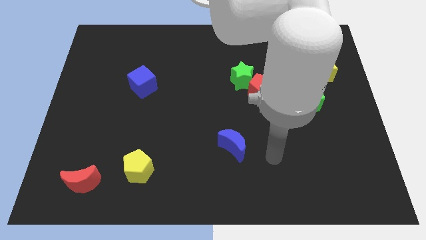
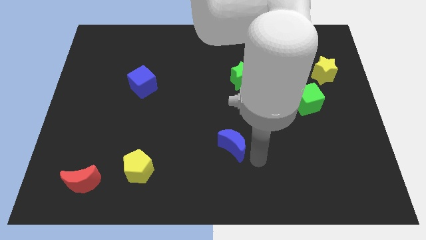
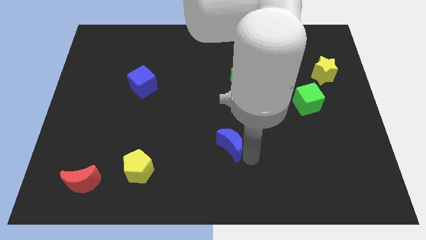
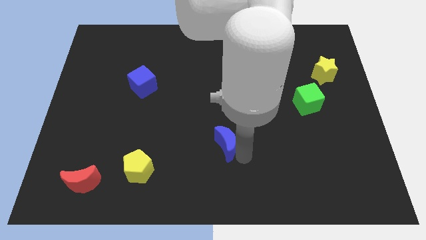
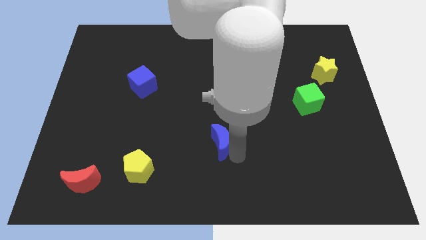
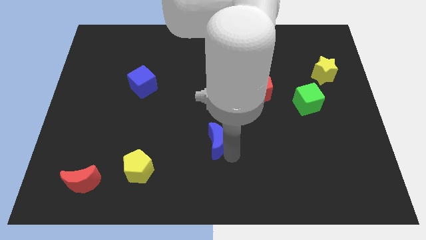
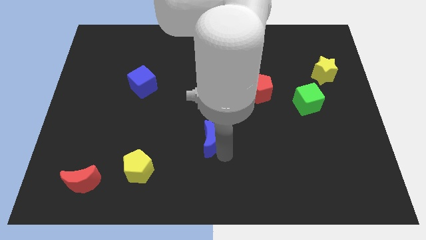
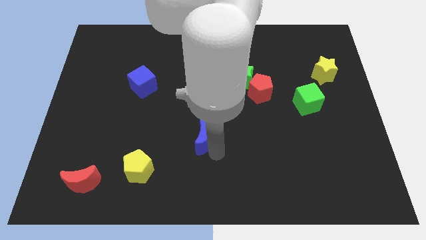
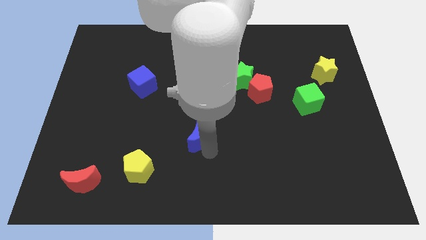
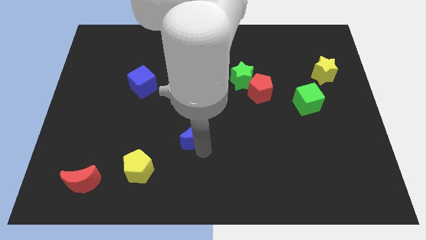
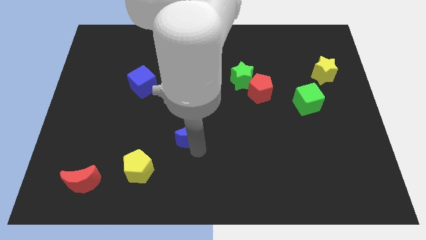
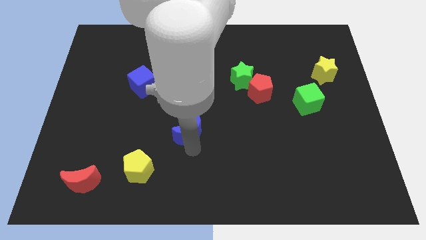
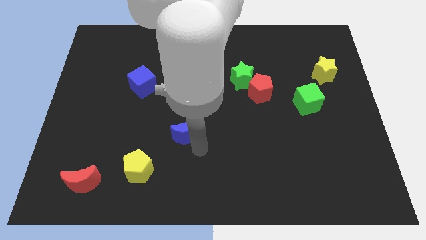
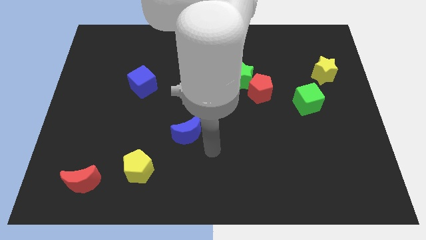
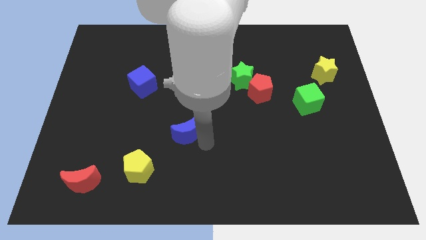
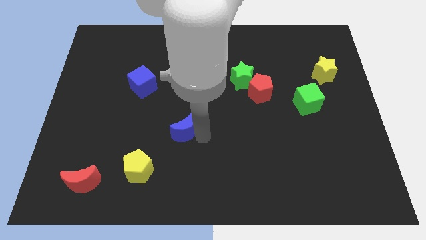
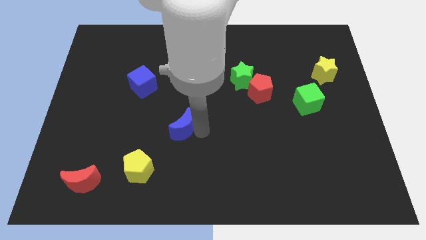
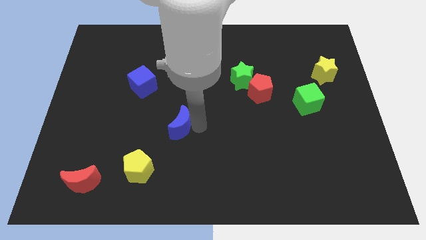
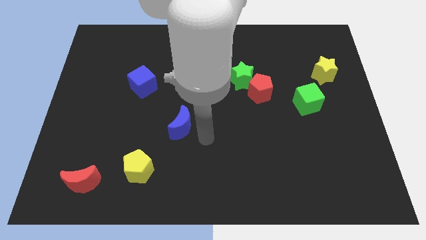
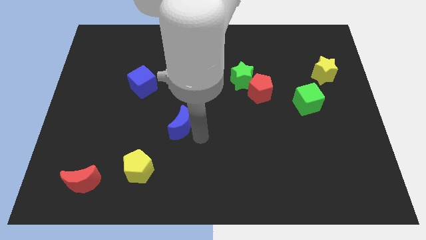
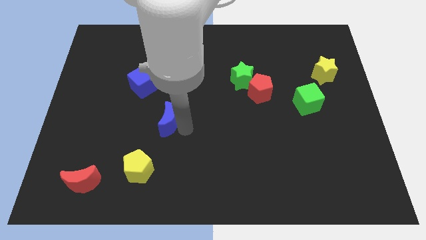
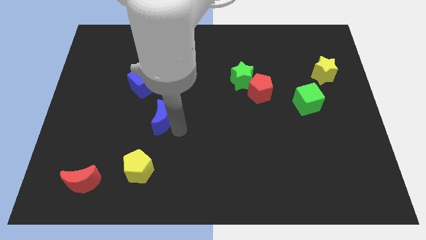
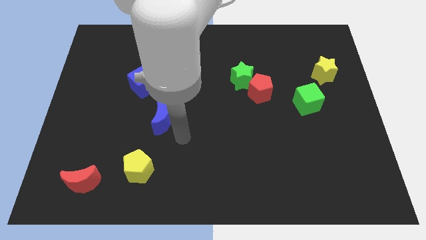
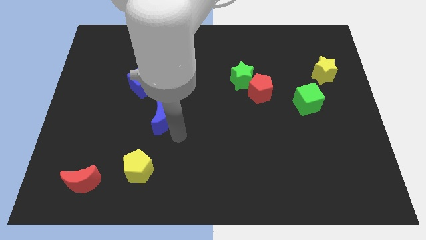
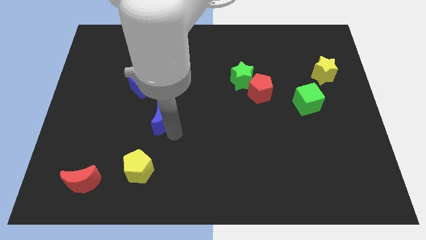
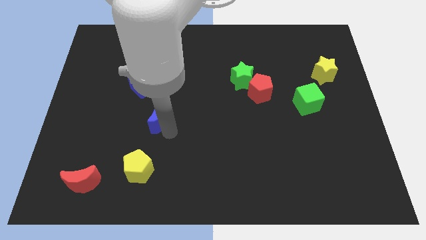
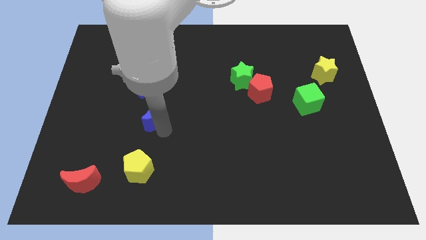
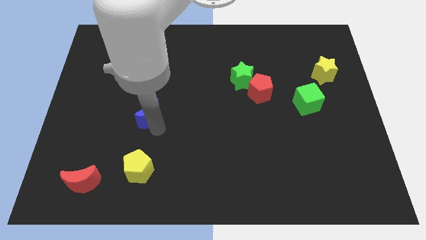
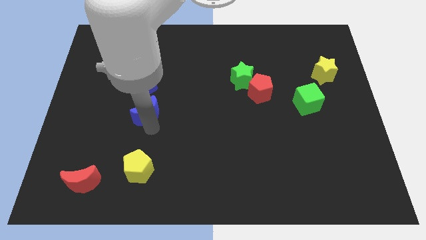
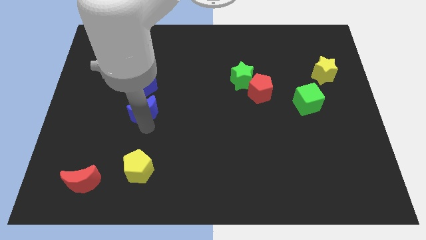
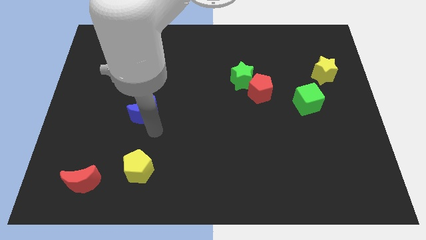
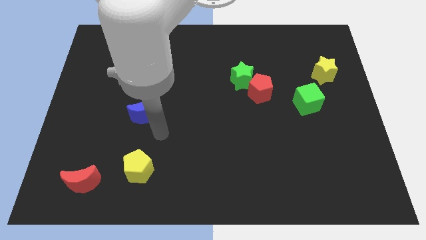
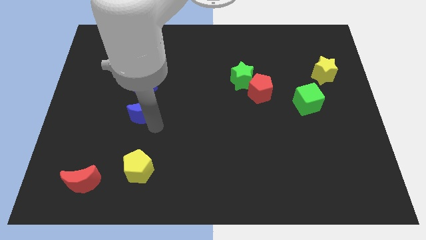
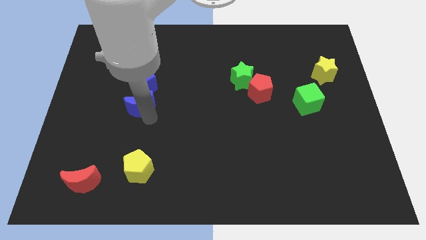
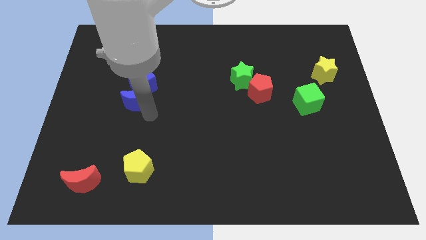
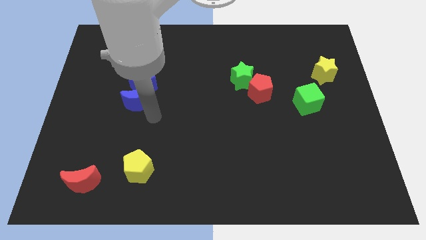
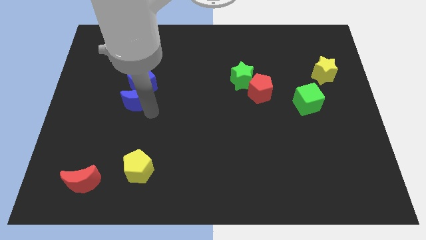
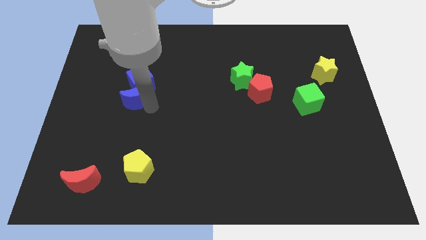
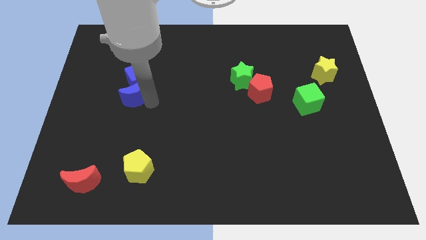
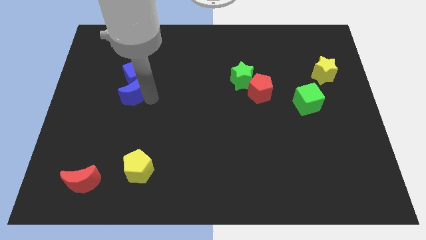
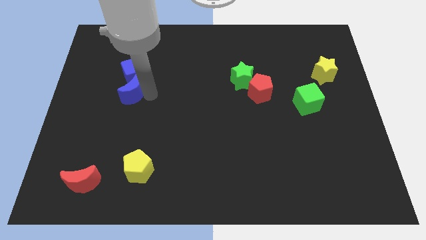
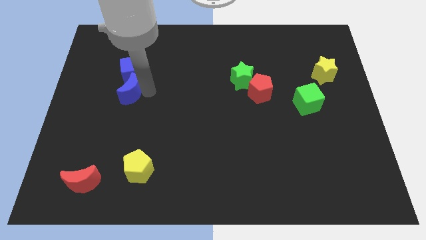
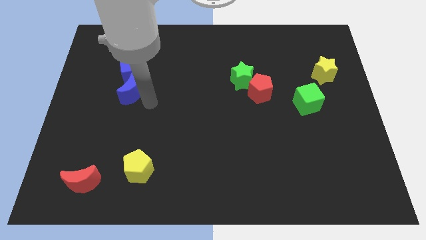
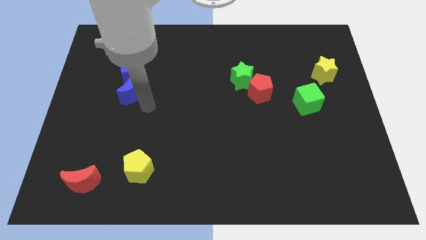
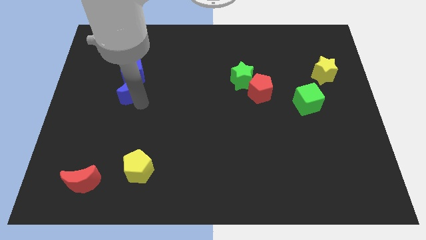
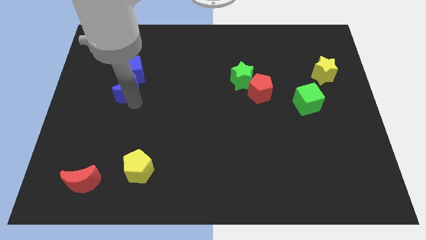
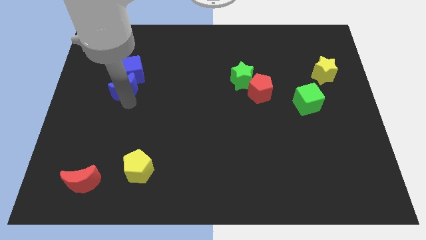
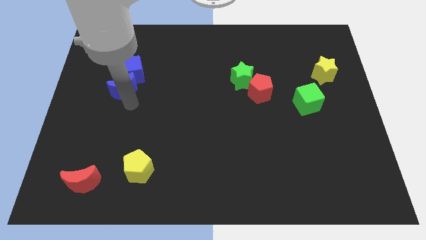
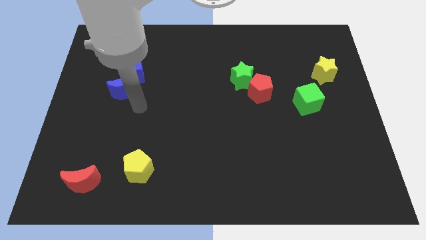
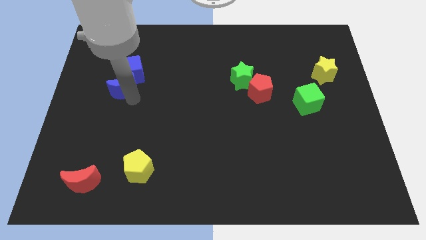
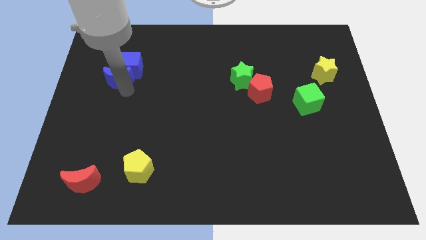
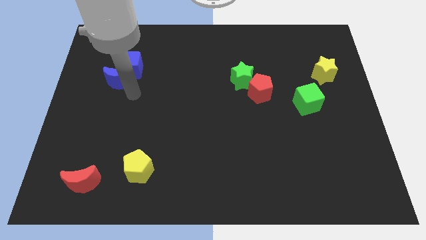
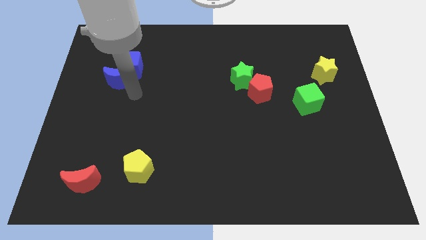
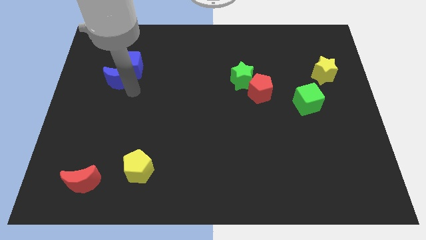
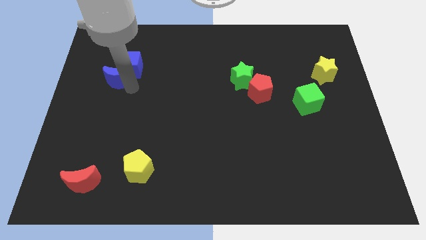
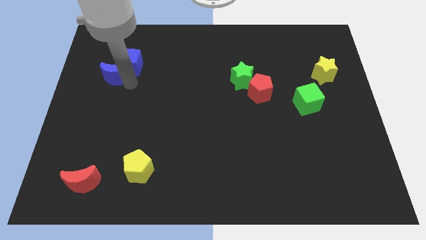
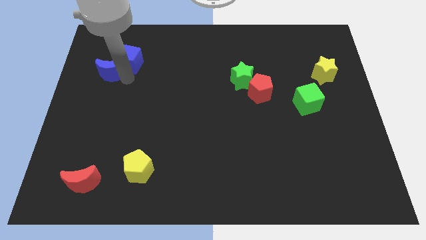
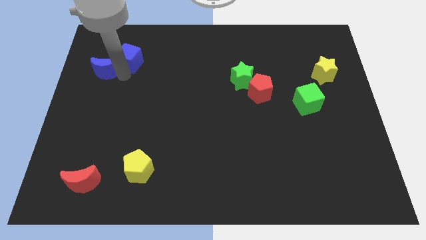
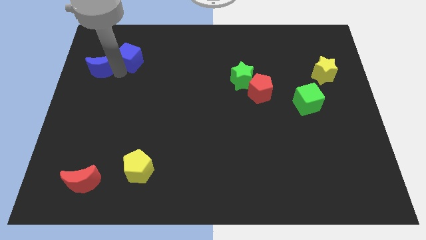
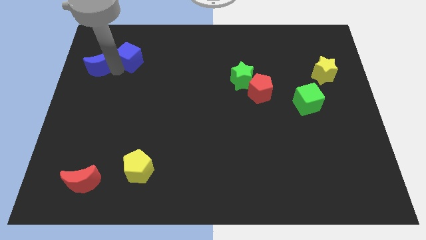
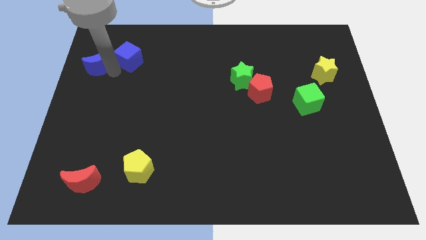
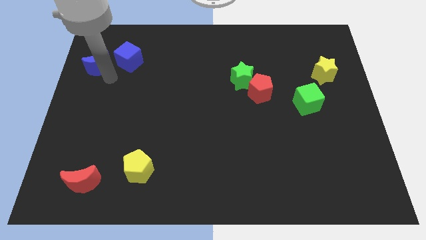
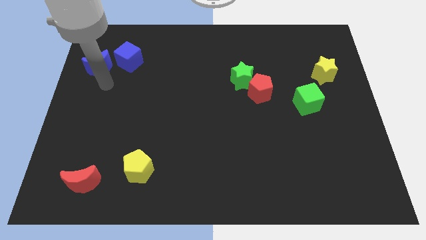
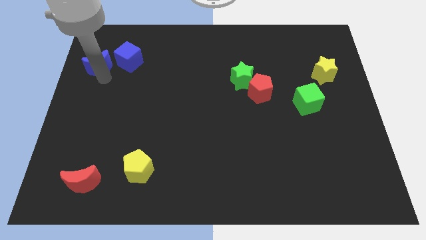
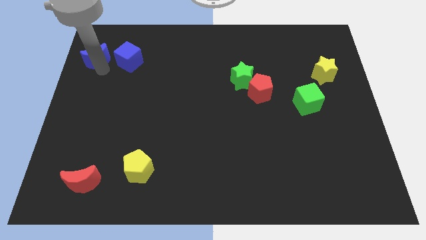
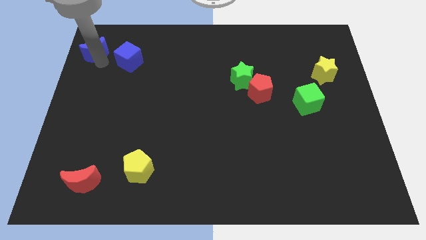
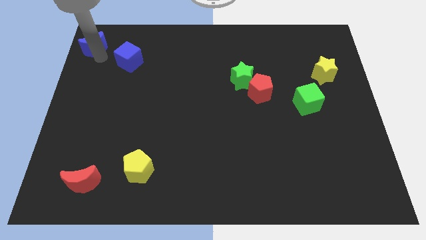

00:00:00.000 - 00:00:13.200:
push the blue moon to the upper left corner
